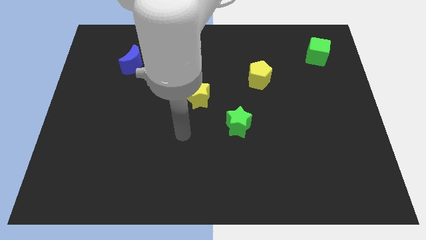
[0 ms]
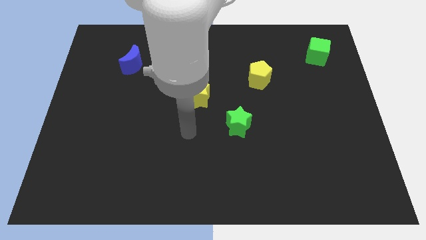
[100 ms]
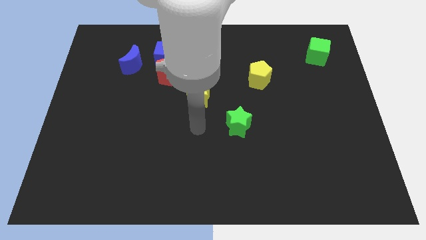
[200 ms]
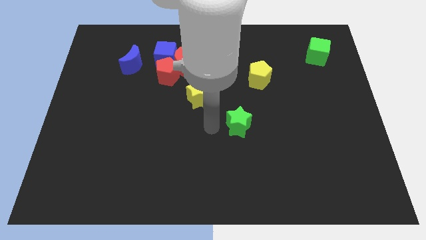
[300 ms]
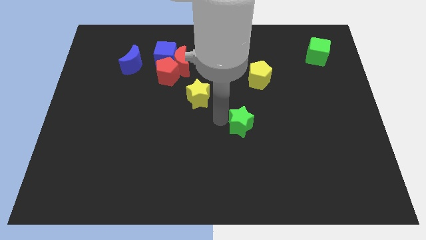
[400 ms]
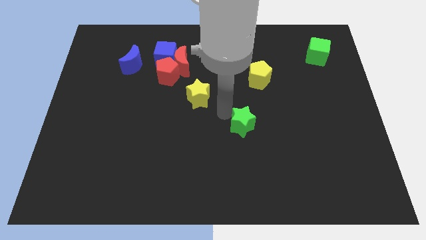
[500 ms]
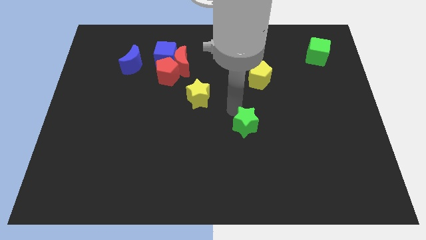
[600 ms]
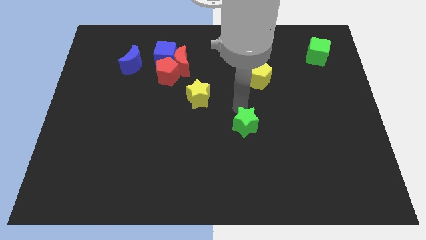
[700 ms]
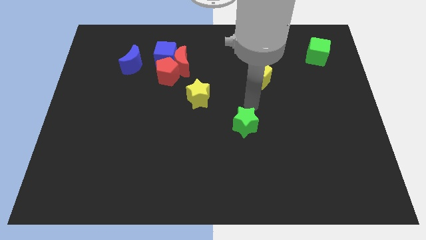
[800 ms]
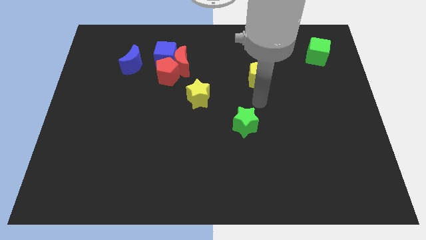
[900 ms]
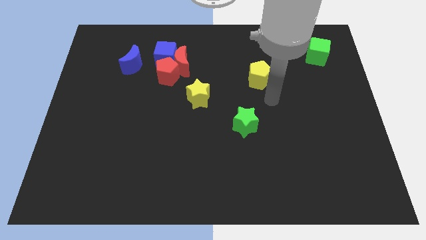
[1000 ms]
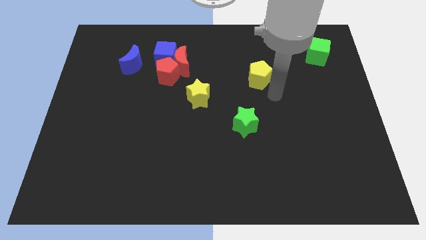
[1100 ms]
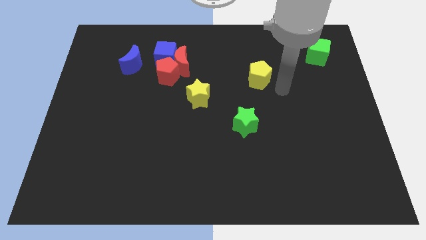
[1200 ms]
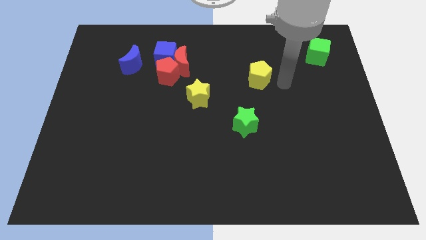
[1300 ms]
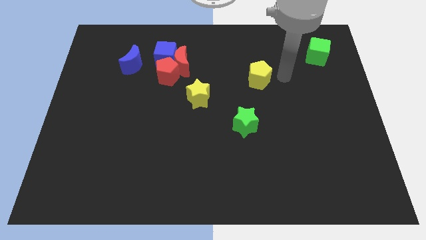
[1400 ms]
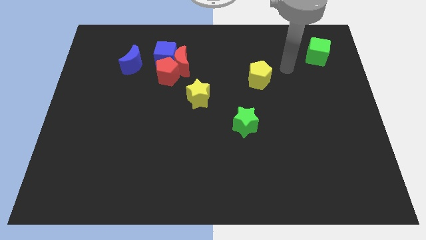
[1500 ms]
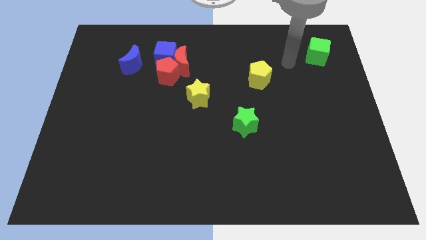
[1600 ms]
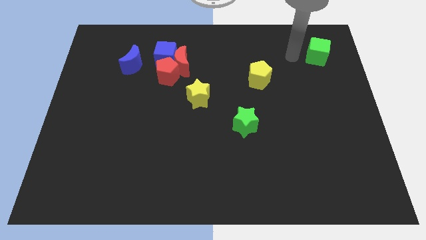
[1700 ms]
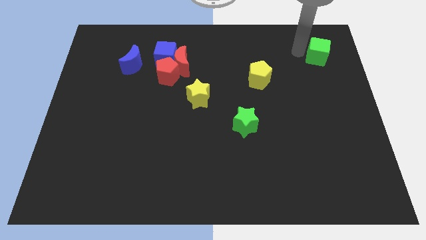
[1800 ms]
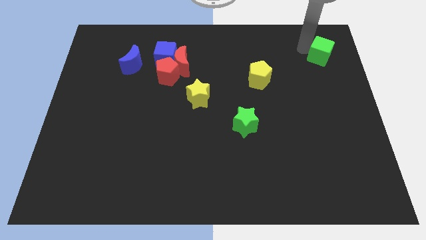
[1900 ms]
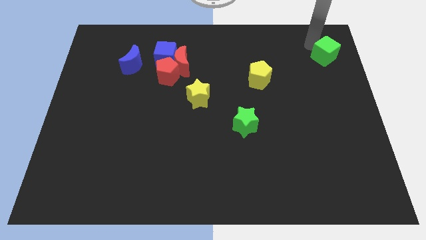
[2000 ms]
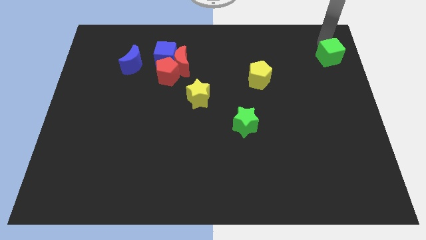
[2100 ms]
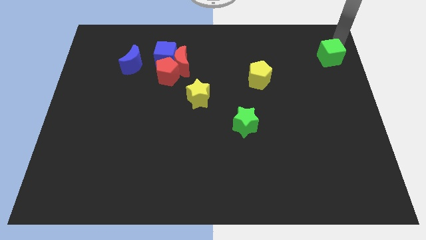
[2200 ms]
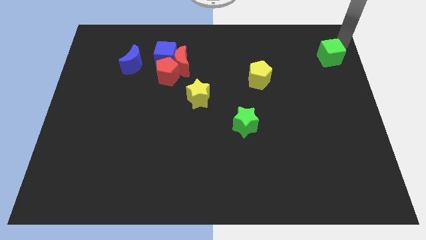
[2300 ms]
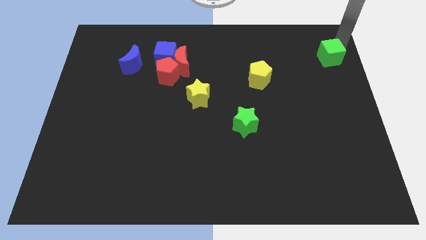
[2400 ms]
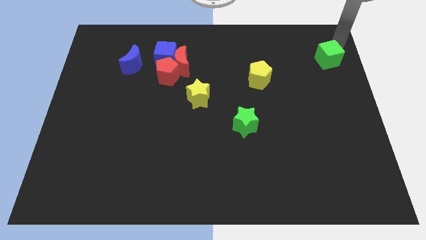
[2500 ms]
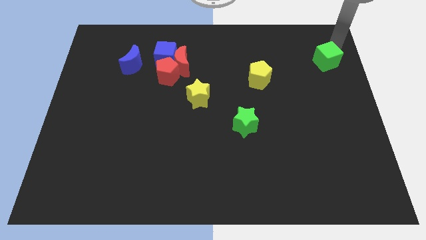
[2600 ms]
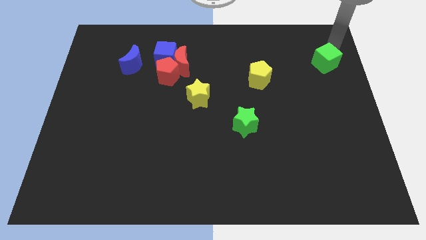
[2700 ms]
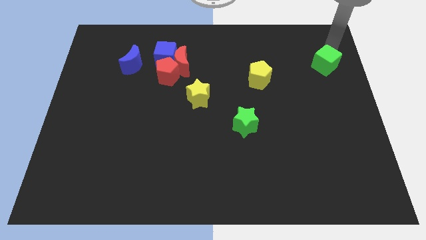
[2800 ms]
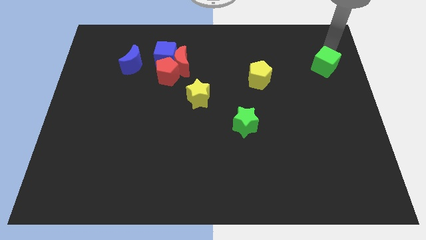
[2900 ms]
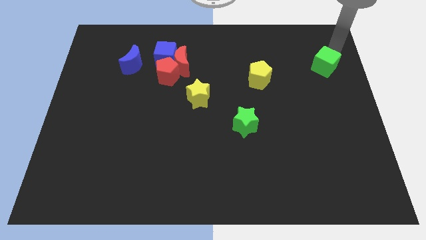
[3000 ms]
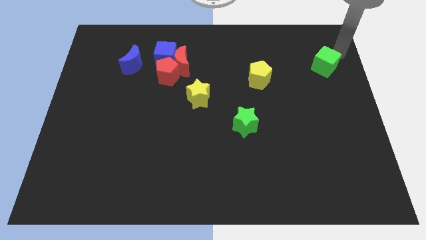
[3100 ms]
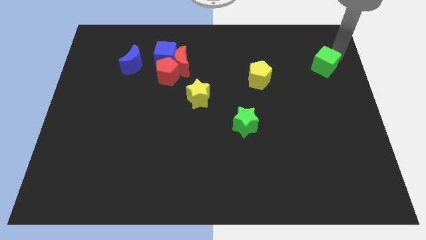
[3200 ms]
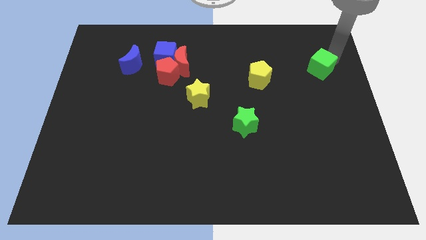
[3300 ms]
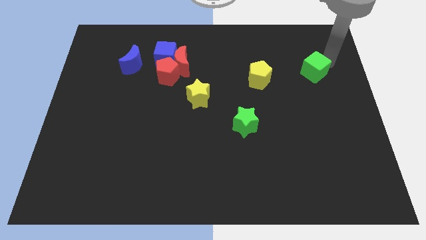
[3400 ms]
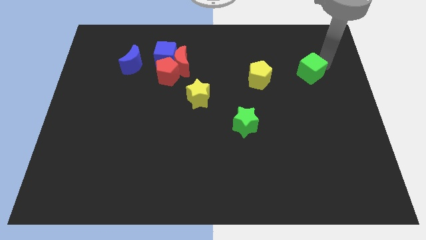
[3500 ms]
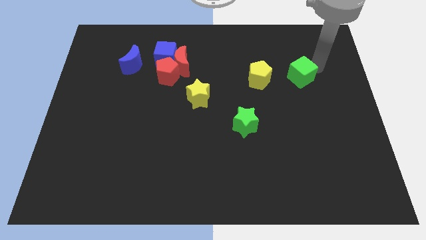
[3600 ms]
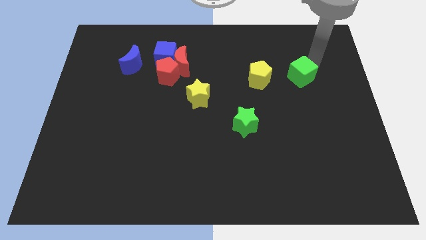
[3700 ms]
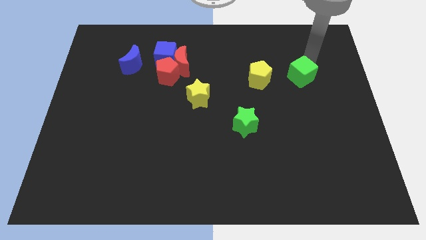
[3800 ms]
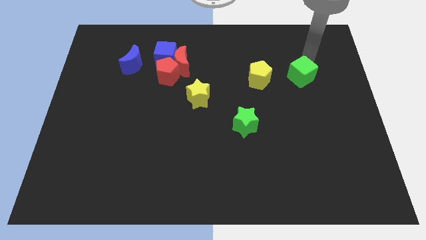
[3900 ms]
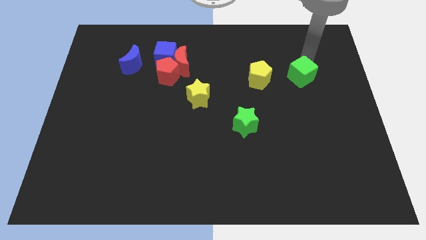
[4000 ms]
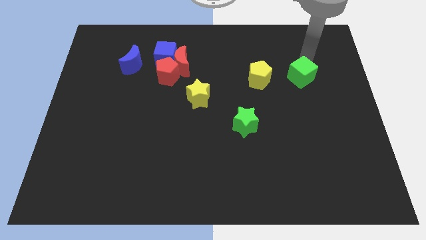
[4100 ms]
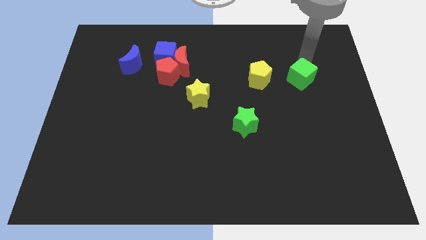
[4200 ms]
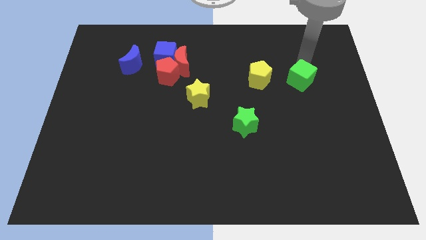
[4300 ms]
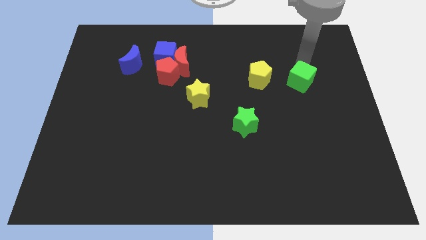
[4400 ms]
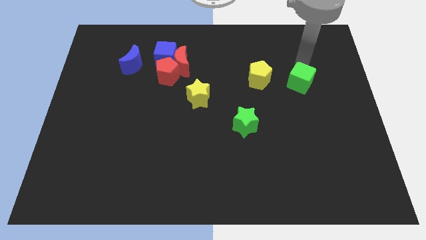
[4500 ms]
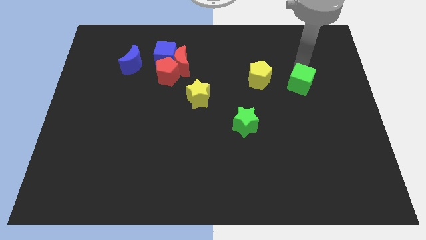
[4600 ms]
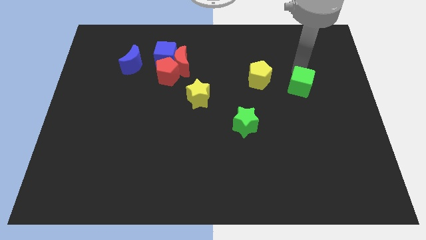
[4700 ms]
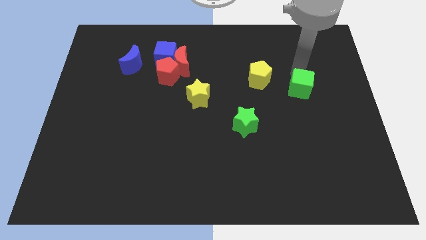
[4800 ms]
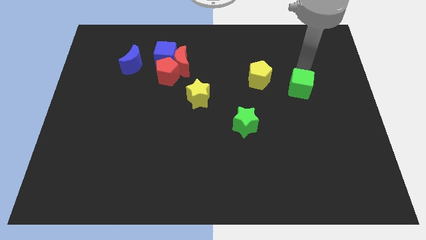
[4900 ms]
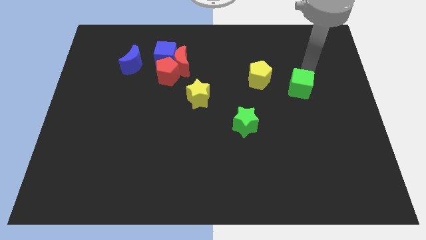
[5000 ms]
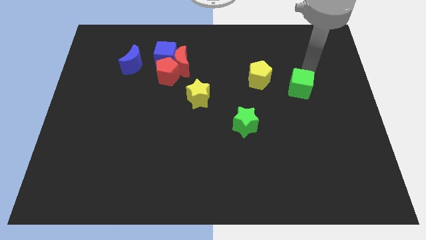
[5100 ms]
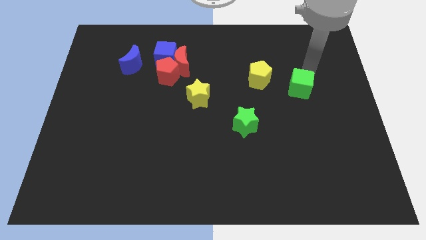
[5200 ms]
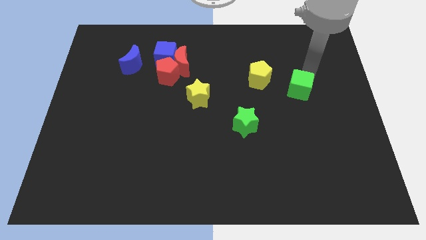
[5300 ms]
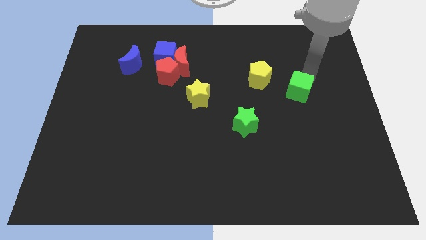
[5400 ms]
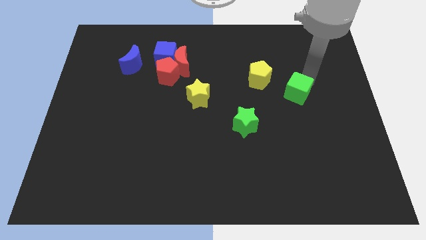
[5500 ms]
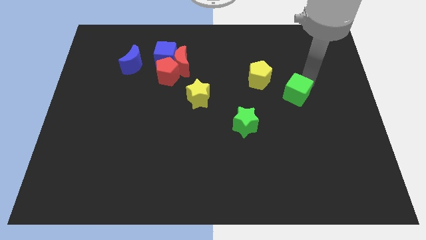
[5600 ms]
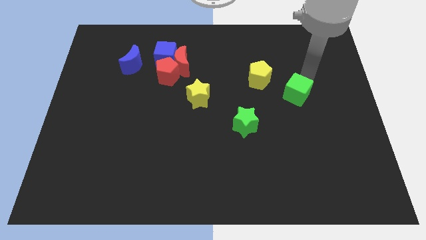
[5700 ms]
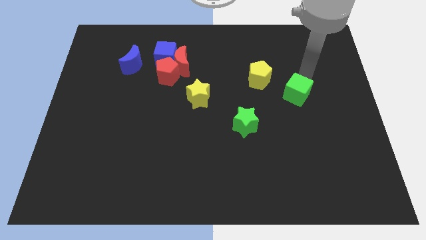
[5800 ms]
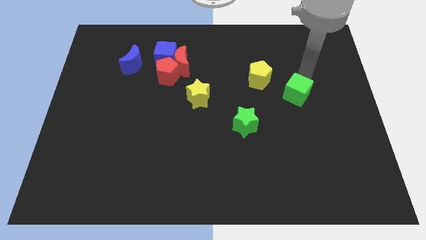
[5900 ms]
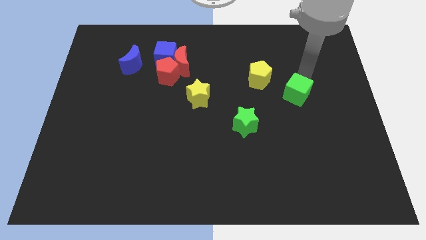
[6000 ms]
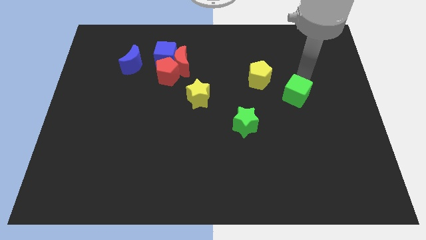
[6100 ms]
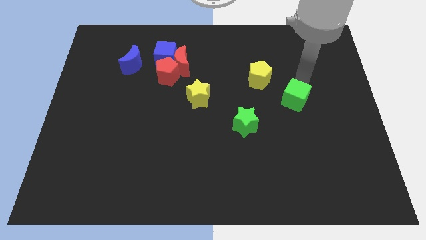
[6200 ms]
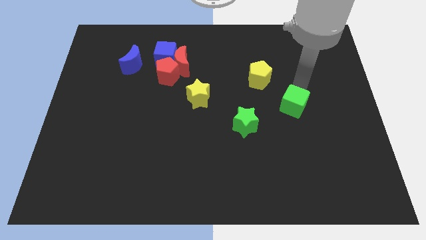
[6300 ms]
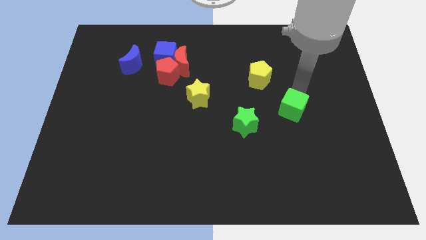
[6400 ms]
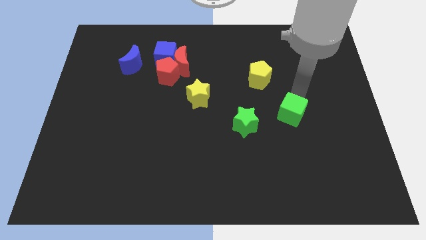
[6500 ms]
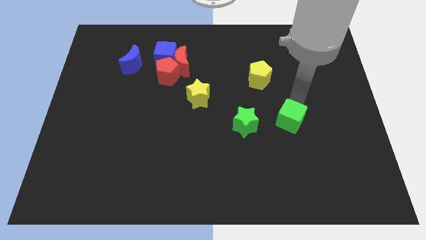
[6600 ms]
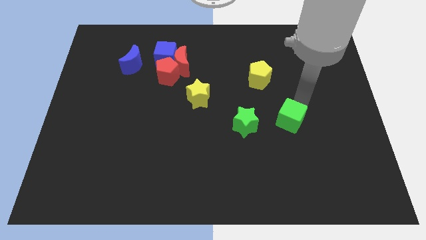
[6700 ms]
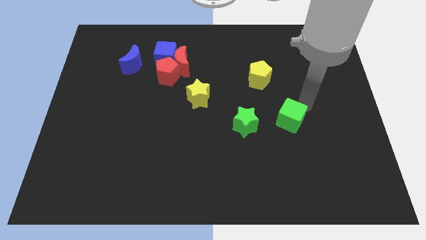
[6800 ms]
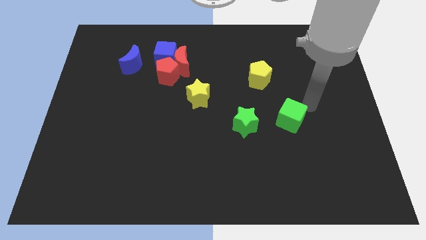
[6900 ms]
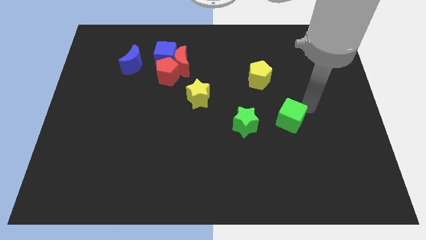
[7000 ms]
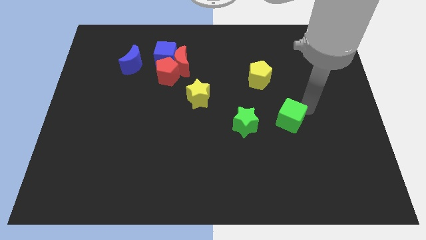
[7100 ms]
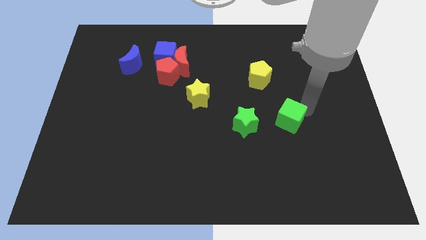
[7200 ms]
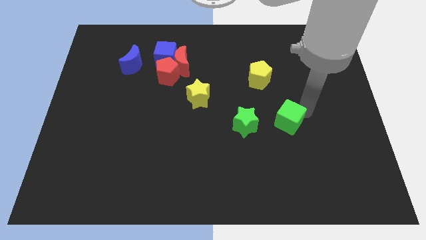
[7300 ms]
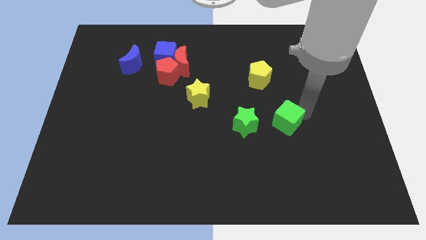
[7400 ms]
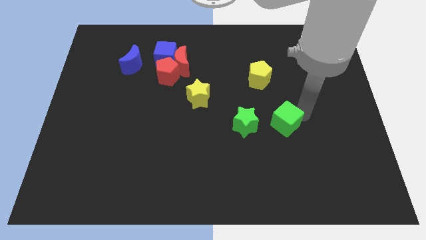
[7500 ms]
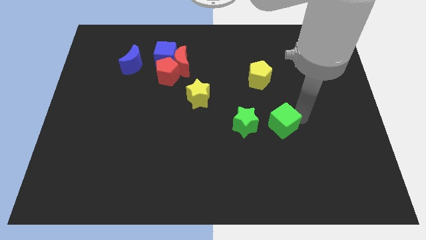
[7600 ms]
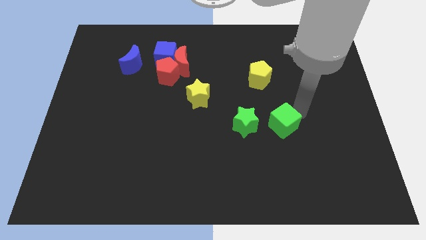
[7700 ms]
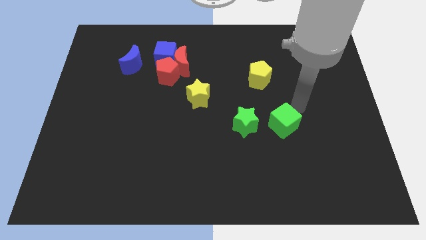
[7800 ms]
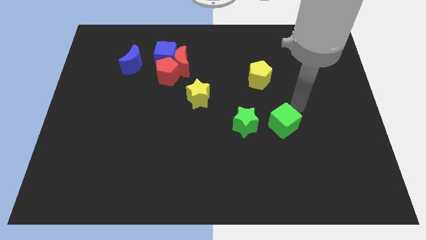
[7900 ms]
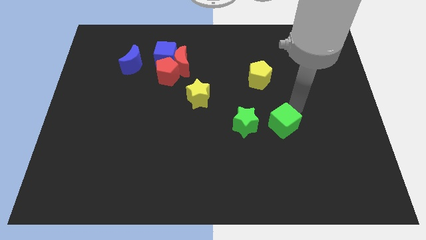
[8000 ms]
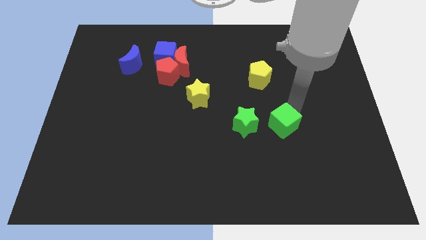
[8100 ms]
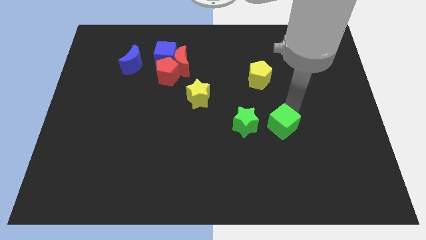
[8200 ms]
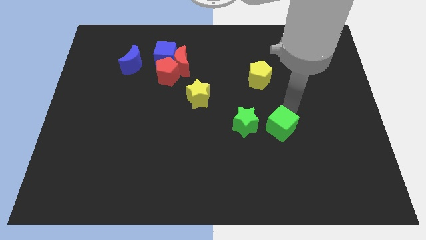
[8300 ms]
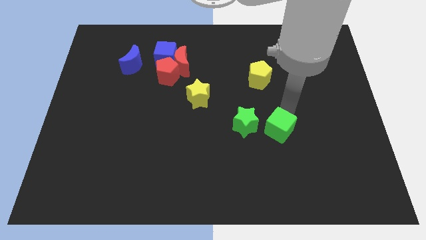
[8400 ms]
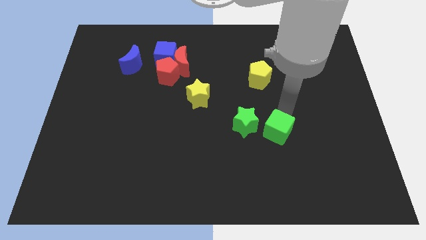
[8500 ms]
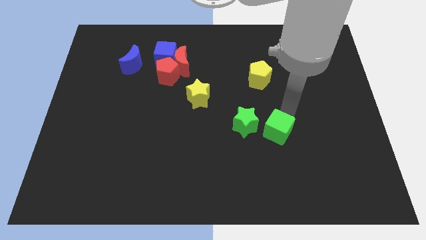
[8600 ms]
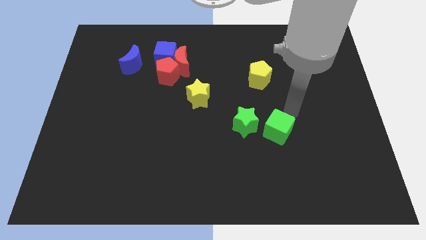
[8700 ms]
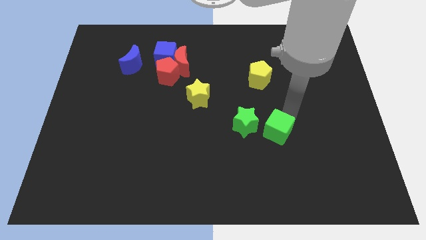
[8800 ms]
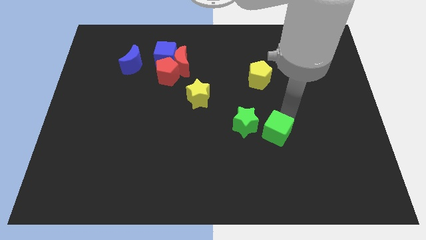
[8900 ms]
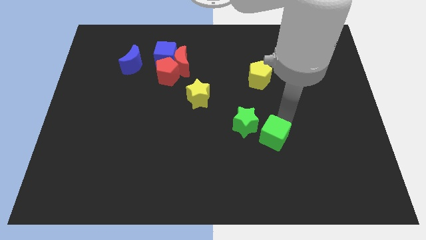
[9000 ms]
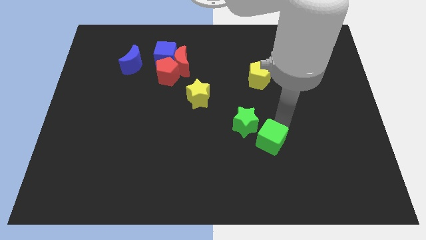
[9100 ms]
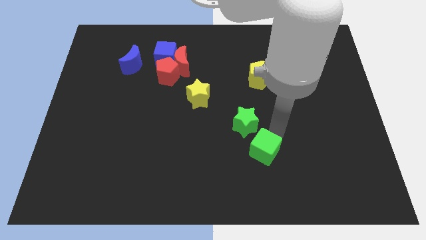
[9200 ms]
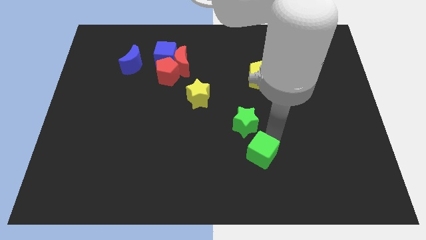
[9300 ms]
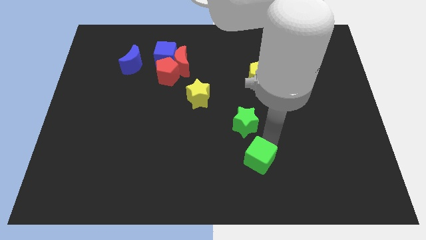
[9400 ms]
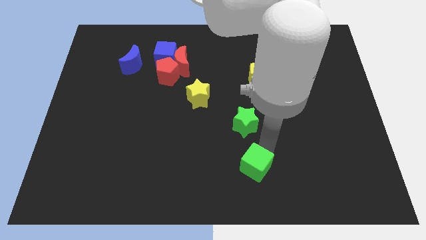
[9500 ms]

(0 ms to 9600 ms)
push the green cube to the bottom
